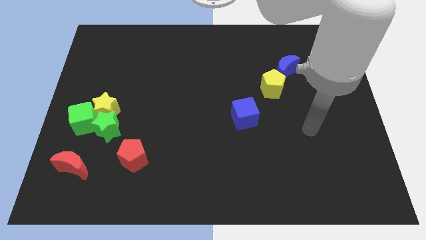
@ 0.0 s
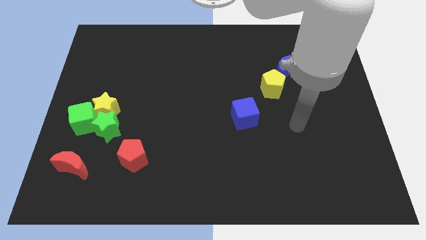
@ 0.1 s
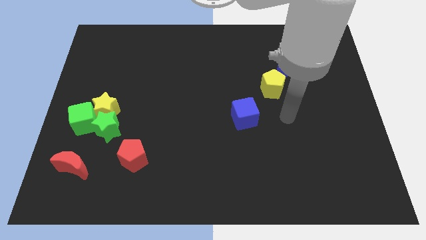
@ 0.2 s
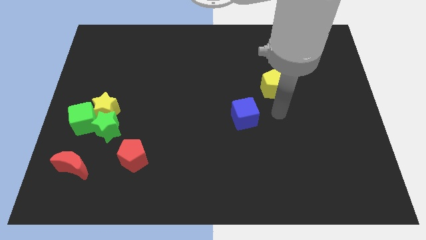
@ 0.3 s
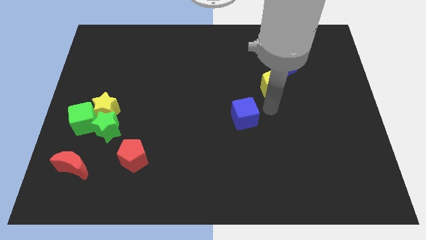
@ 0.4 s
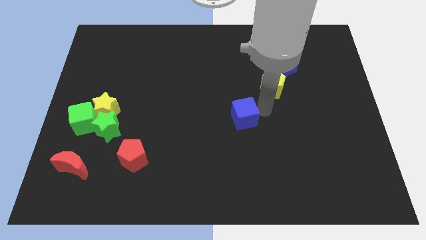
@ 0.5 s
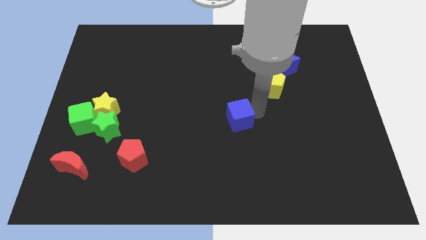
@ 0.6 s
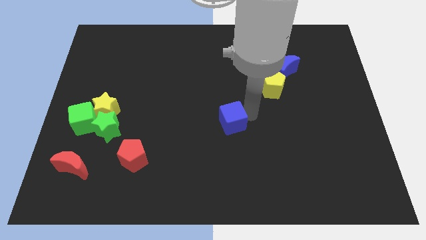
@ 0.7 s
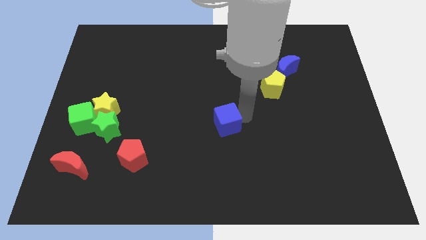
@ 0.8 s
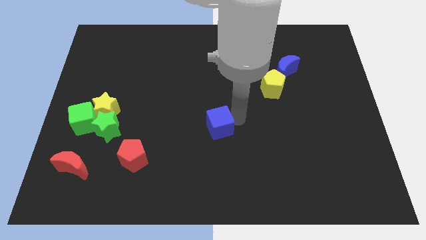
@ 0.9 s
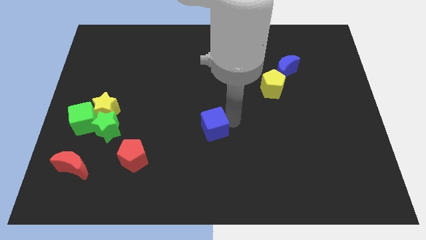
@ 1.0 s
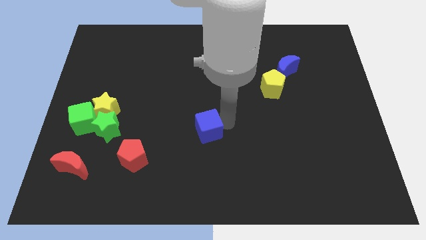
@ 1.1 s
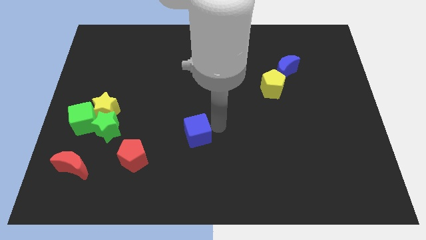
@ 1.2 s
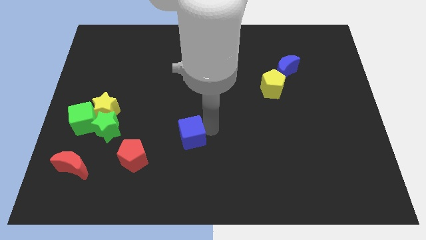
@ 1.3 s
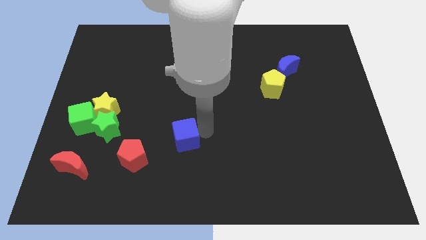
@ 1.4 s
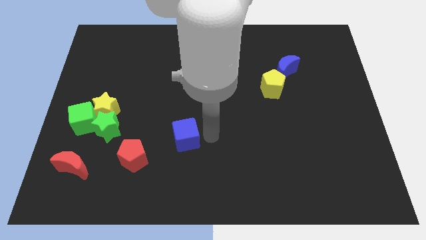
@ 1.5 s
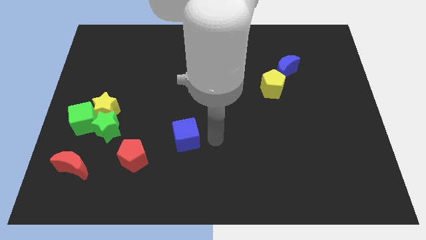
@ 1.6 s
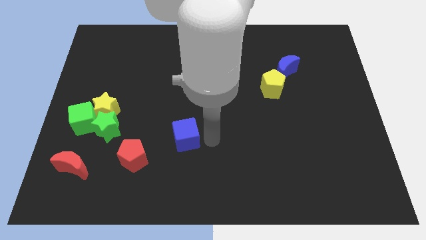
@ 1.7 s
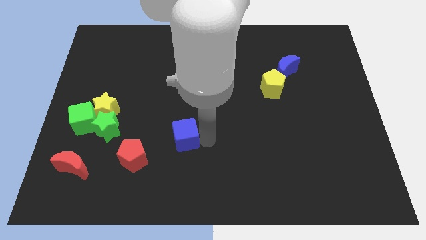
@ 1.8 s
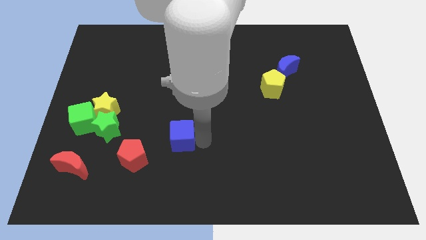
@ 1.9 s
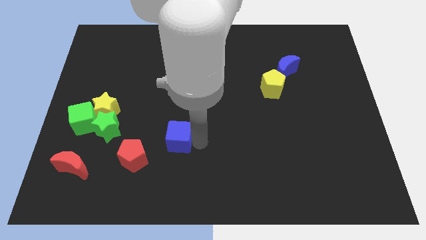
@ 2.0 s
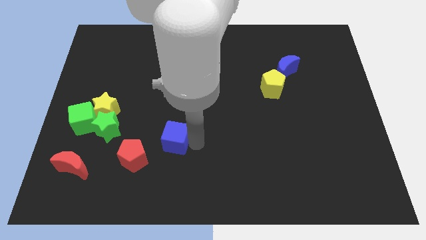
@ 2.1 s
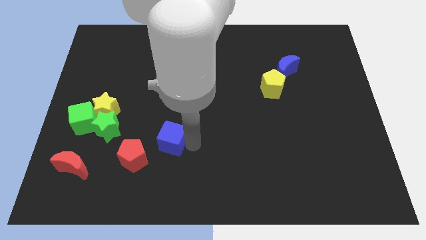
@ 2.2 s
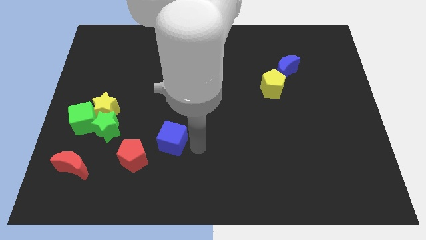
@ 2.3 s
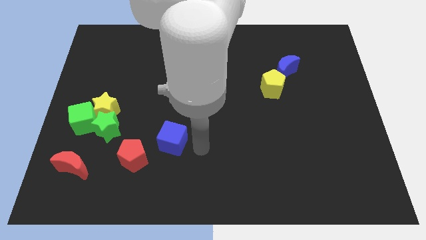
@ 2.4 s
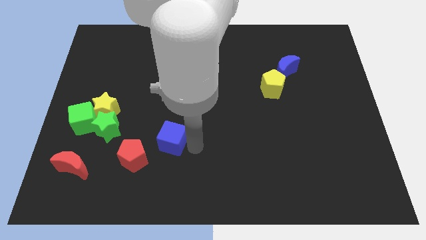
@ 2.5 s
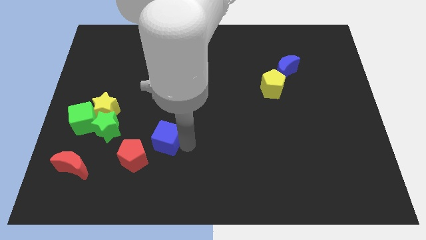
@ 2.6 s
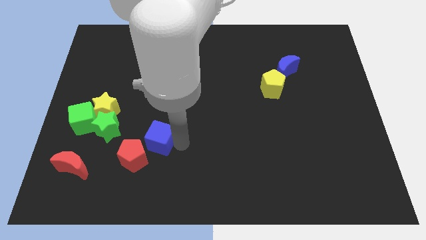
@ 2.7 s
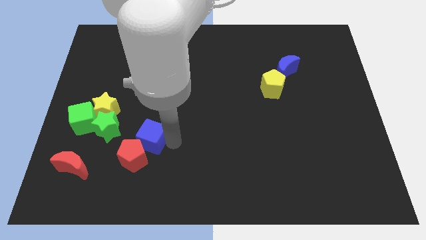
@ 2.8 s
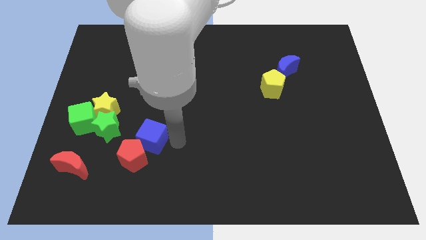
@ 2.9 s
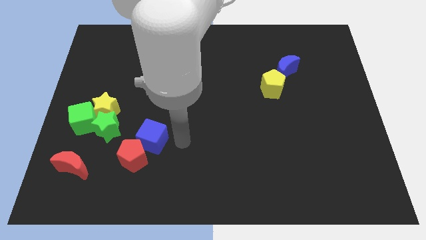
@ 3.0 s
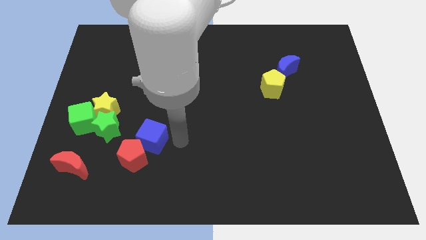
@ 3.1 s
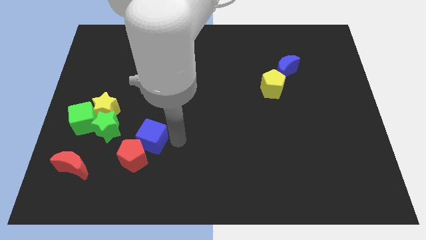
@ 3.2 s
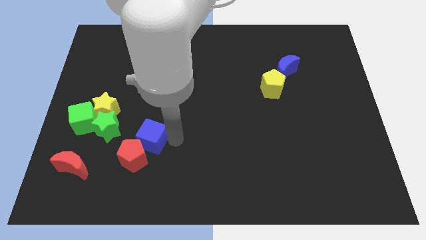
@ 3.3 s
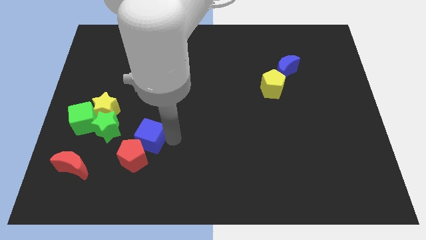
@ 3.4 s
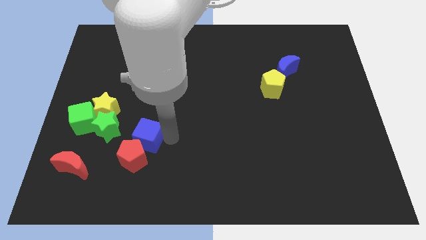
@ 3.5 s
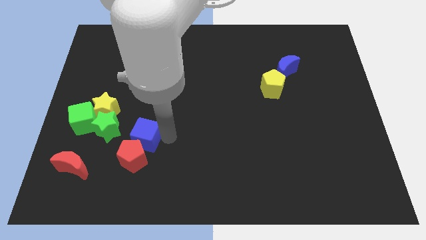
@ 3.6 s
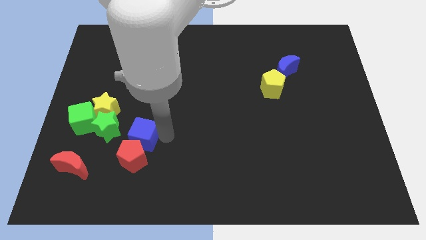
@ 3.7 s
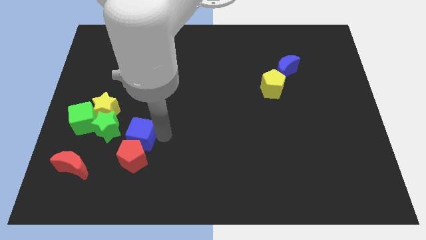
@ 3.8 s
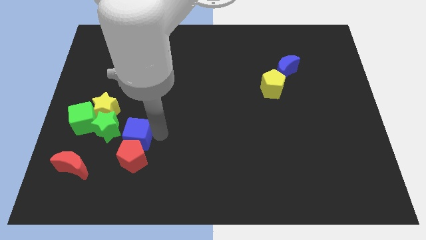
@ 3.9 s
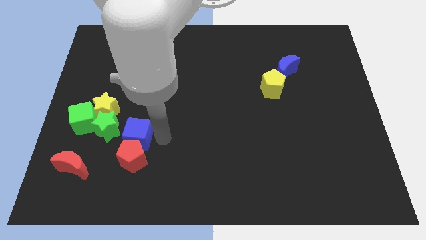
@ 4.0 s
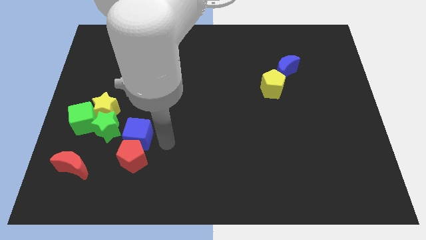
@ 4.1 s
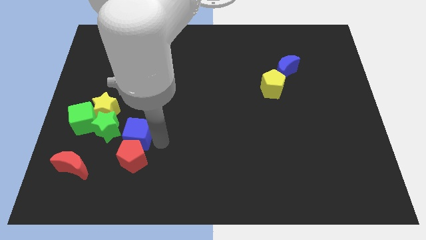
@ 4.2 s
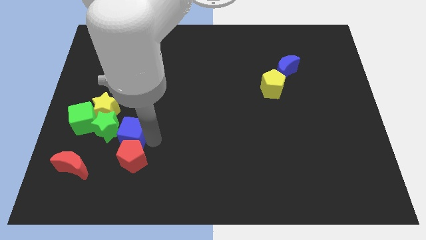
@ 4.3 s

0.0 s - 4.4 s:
slide the blue cube towards the green star

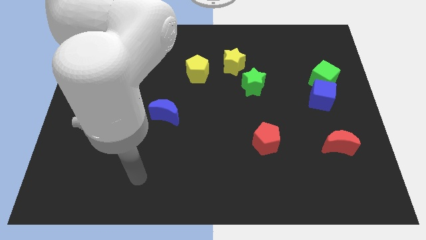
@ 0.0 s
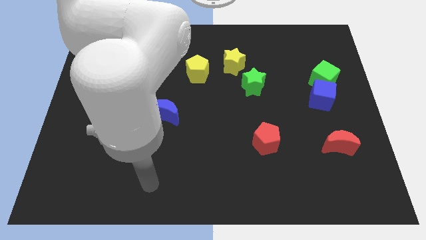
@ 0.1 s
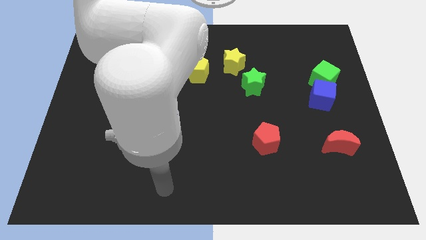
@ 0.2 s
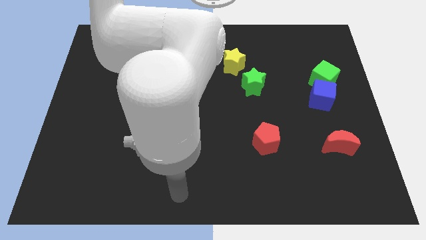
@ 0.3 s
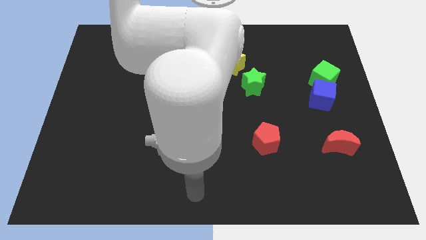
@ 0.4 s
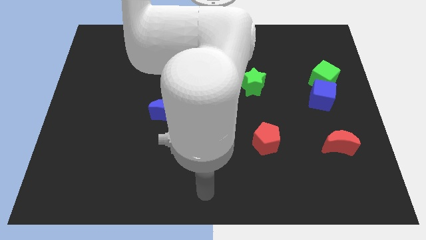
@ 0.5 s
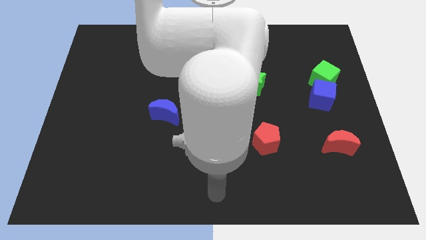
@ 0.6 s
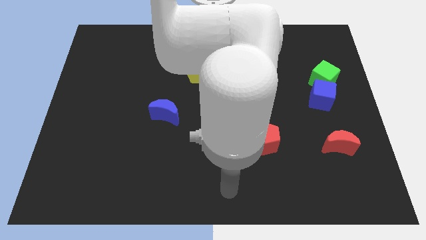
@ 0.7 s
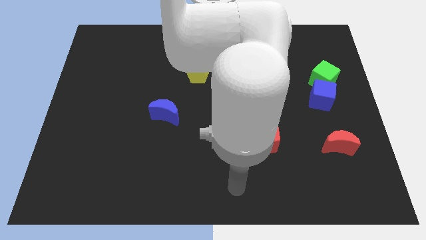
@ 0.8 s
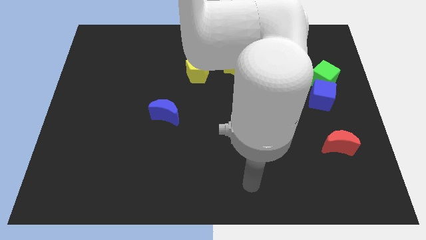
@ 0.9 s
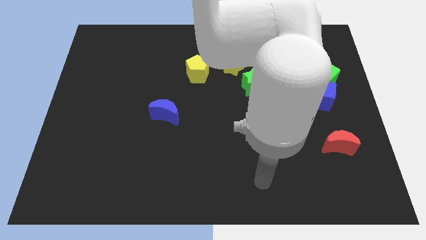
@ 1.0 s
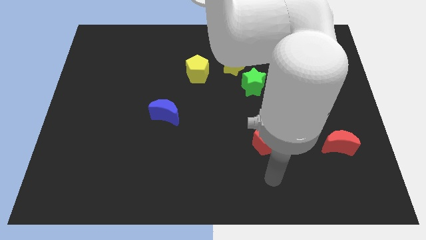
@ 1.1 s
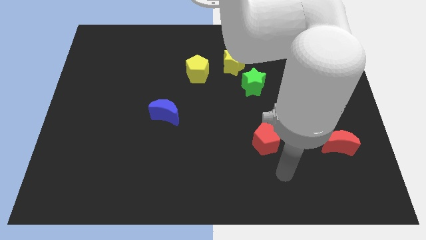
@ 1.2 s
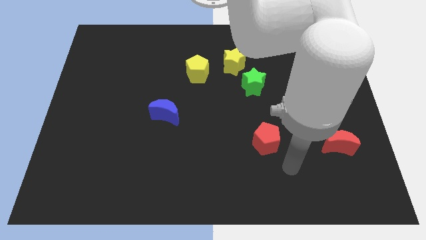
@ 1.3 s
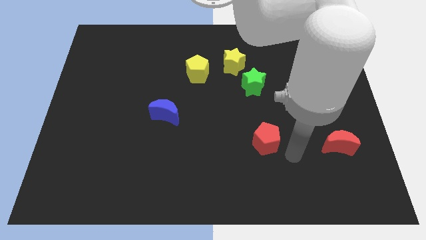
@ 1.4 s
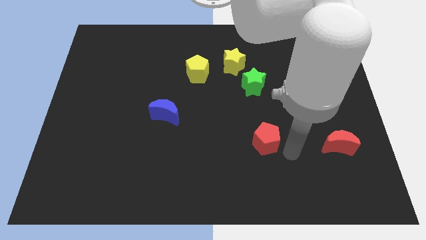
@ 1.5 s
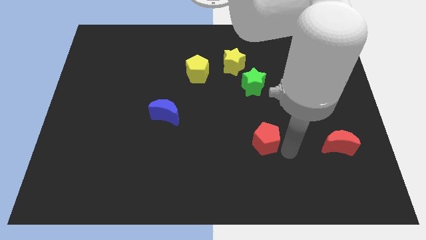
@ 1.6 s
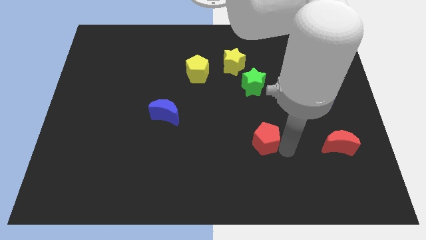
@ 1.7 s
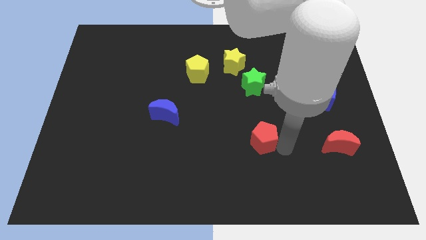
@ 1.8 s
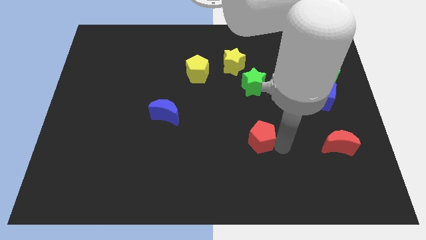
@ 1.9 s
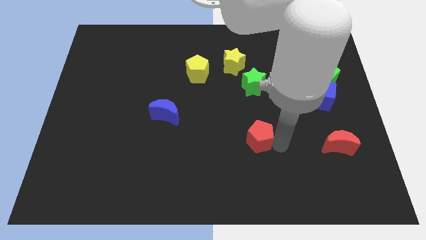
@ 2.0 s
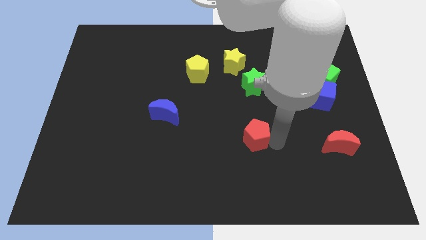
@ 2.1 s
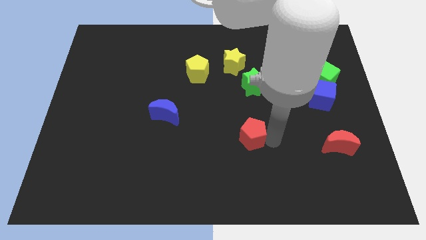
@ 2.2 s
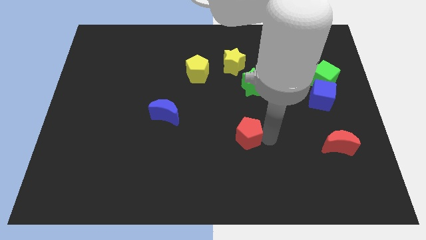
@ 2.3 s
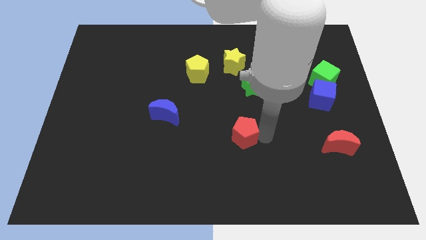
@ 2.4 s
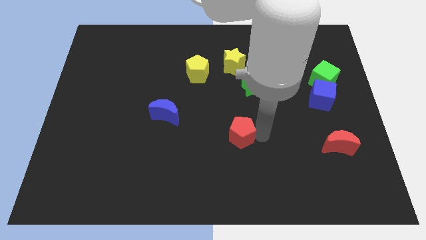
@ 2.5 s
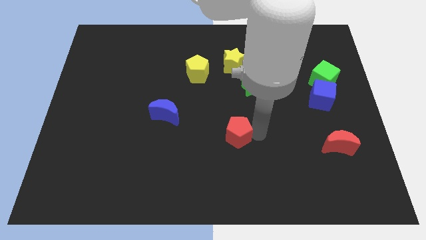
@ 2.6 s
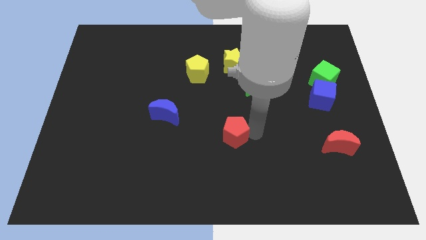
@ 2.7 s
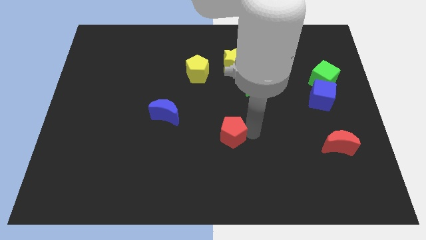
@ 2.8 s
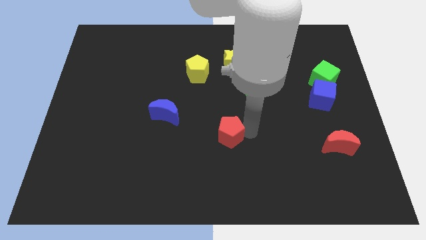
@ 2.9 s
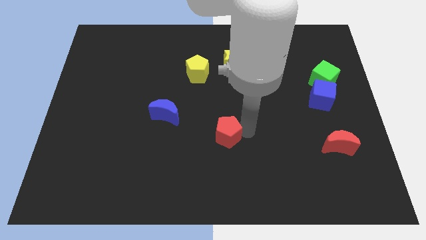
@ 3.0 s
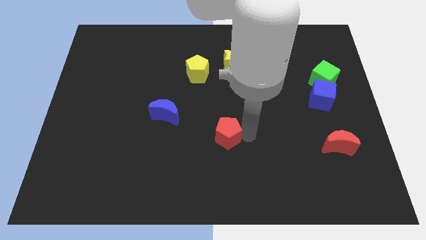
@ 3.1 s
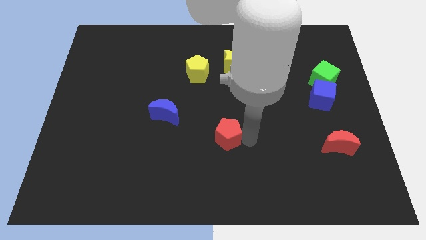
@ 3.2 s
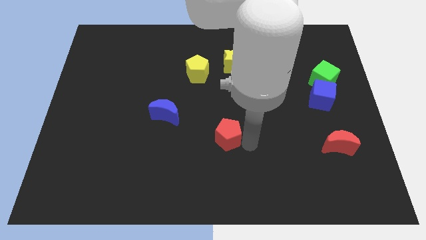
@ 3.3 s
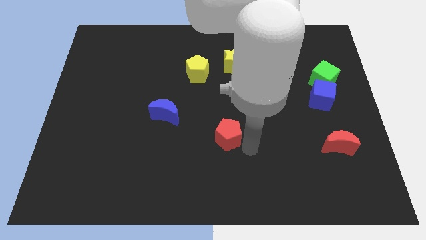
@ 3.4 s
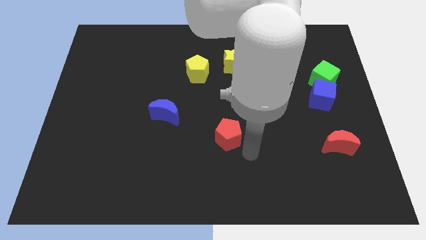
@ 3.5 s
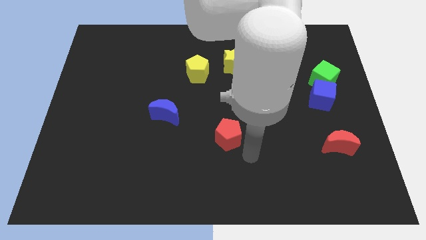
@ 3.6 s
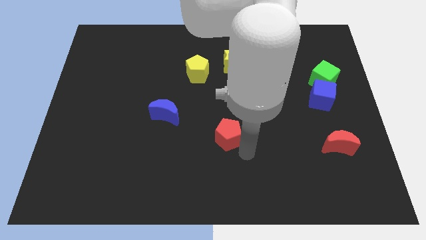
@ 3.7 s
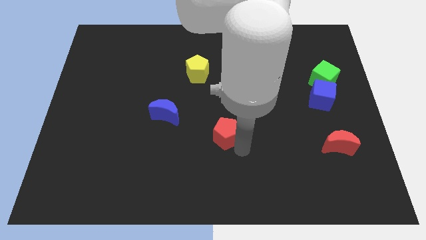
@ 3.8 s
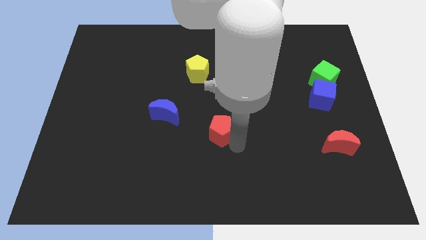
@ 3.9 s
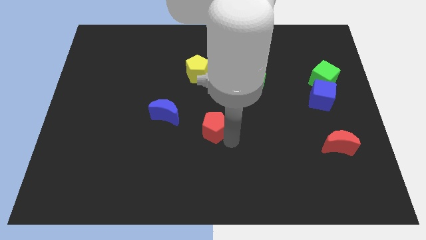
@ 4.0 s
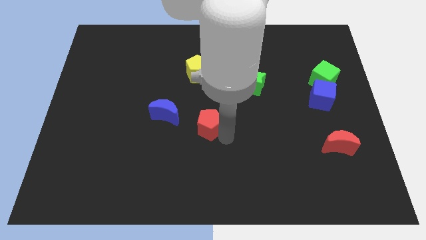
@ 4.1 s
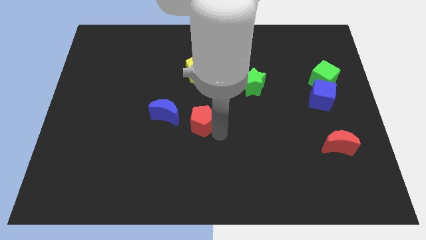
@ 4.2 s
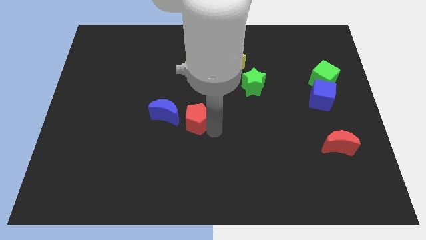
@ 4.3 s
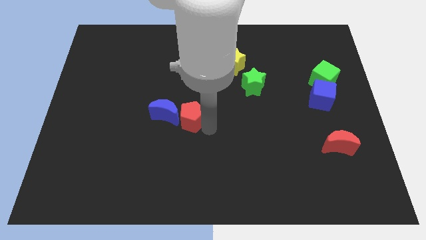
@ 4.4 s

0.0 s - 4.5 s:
put the red pentagon next to the blue moon
